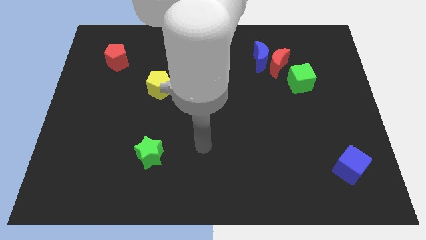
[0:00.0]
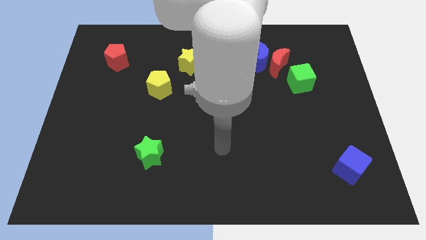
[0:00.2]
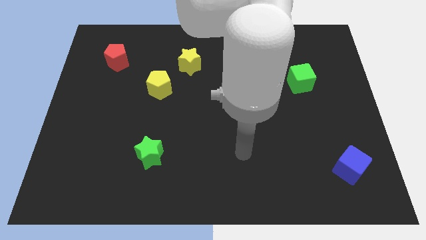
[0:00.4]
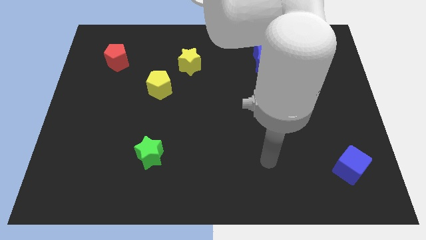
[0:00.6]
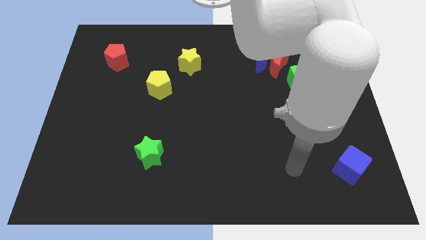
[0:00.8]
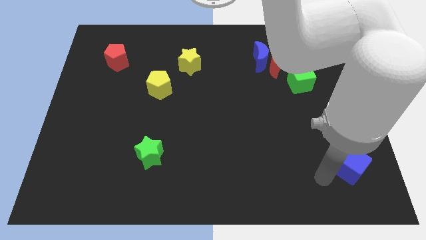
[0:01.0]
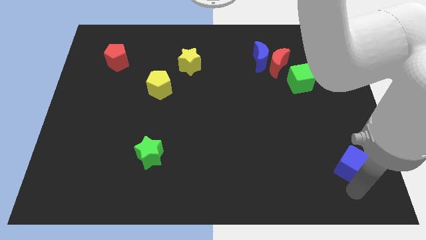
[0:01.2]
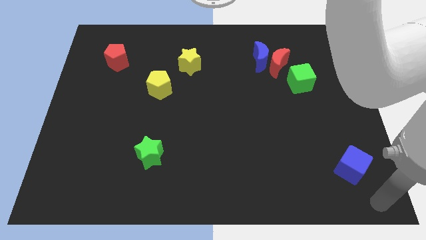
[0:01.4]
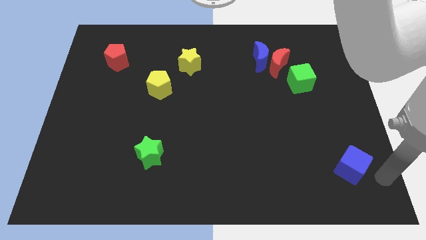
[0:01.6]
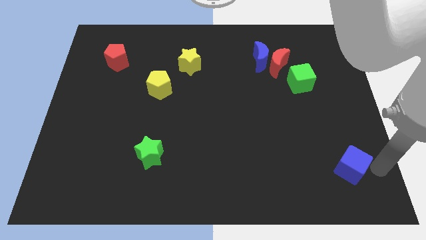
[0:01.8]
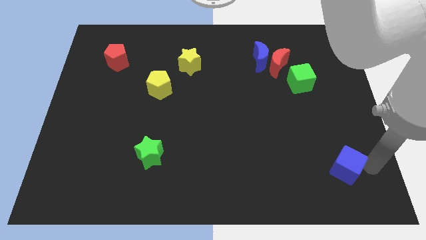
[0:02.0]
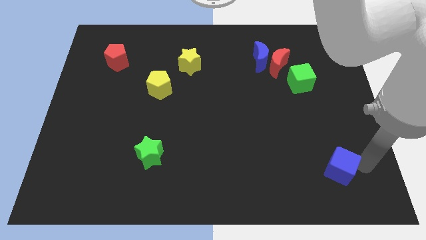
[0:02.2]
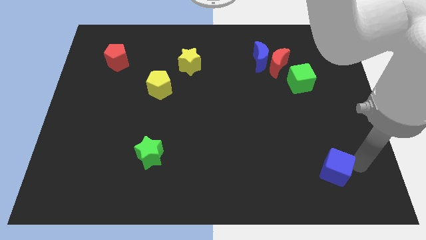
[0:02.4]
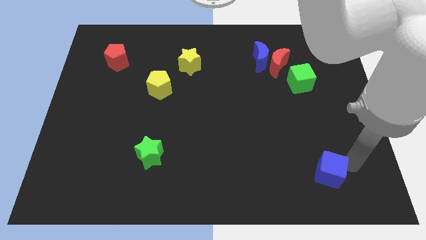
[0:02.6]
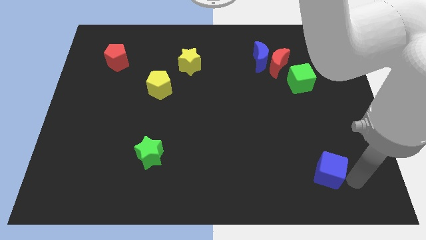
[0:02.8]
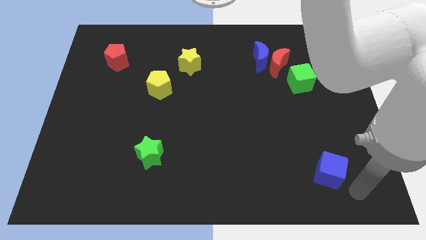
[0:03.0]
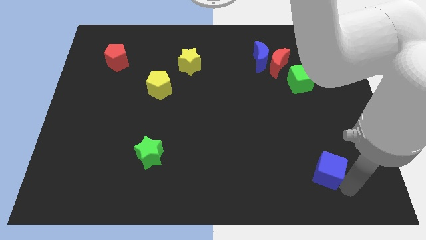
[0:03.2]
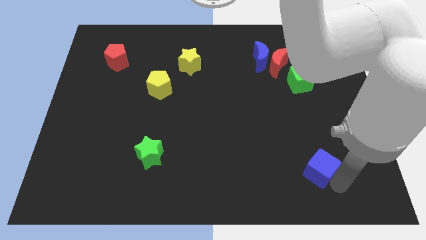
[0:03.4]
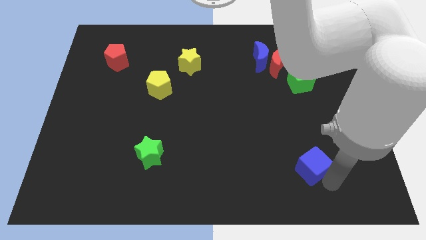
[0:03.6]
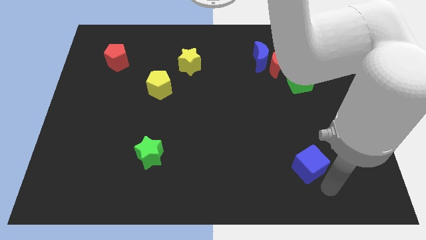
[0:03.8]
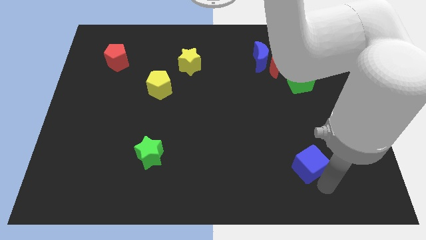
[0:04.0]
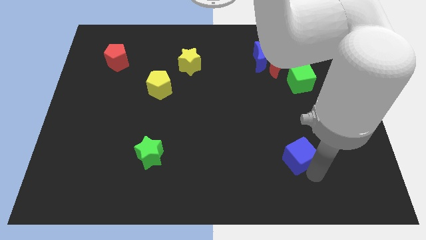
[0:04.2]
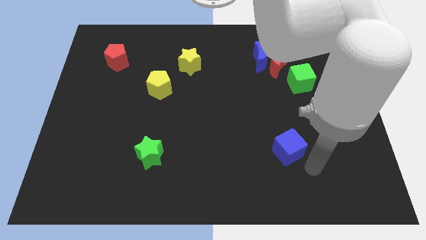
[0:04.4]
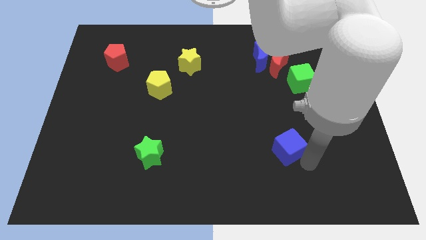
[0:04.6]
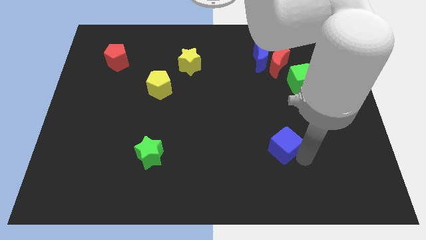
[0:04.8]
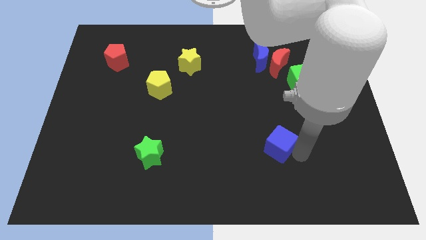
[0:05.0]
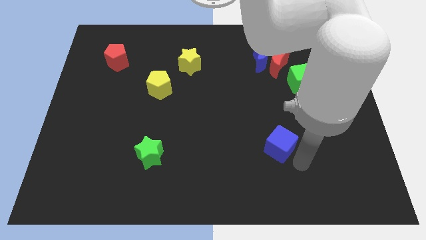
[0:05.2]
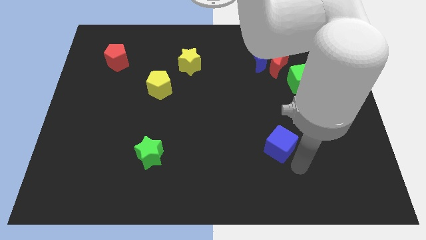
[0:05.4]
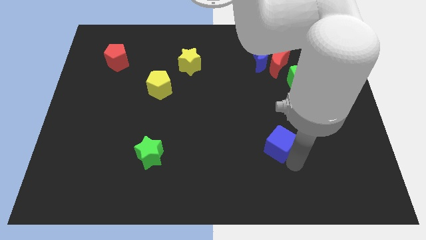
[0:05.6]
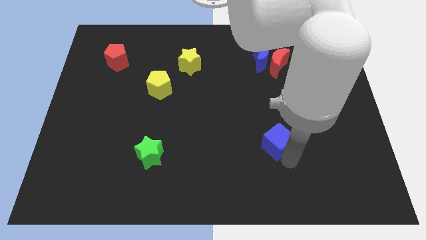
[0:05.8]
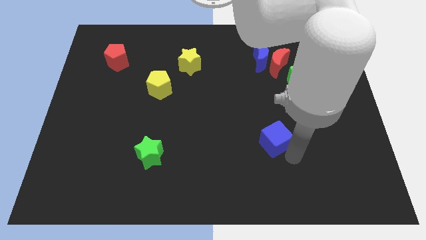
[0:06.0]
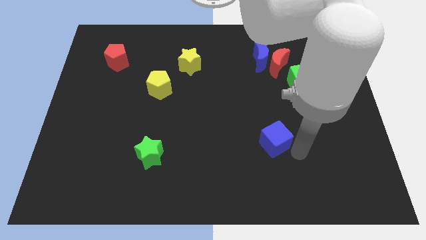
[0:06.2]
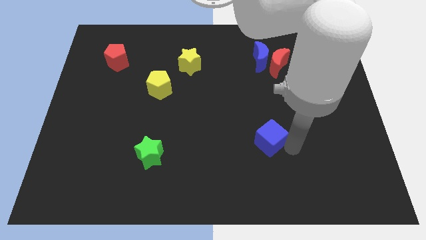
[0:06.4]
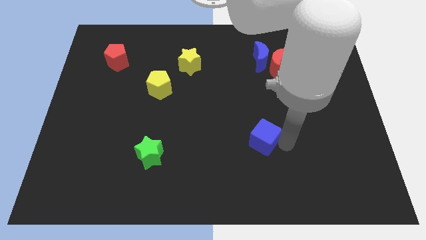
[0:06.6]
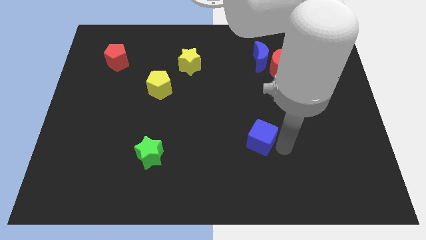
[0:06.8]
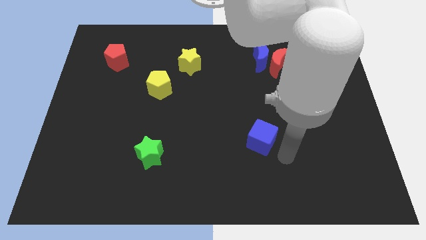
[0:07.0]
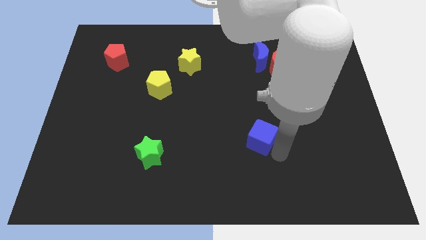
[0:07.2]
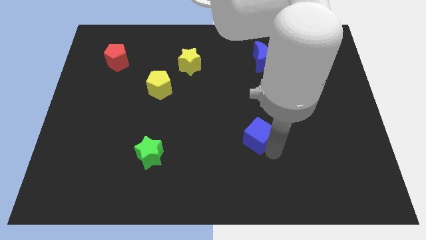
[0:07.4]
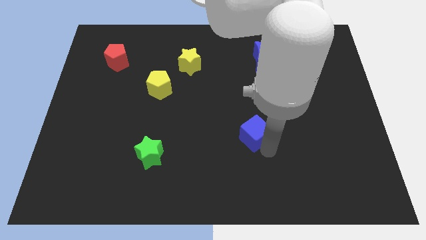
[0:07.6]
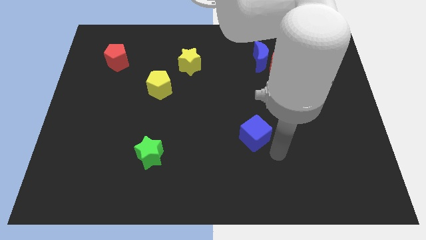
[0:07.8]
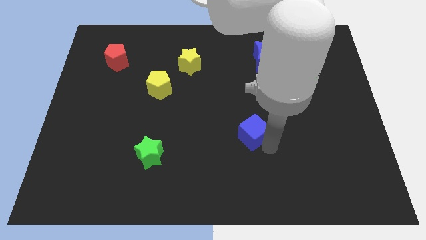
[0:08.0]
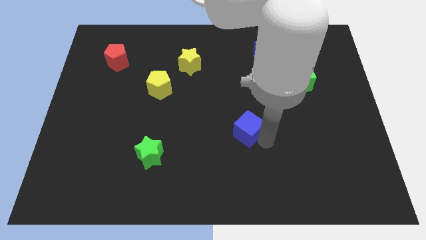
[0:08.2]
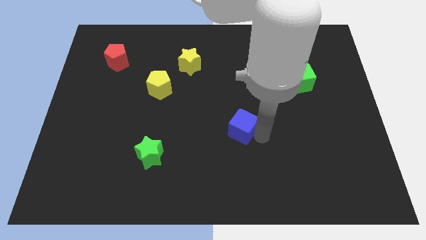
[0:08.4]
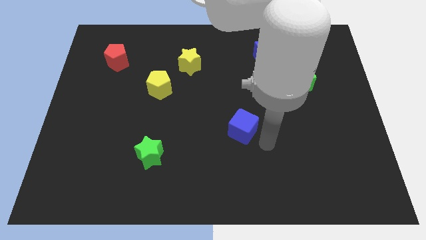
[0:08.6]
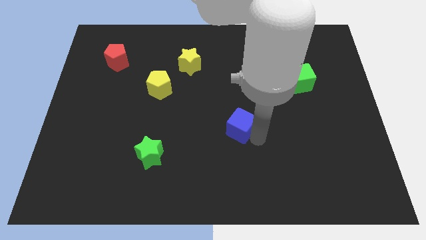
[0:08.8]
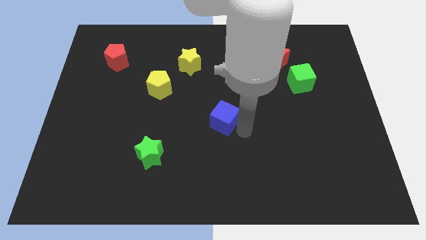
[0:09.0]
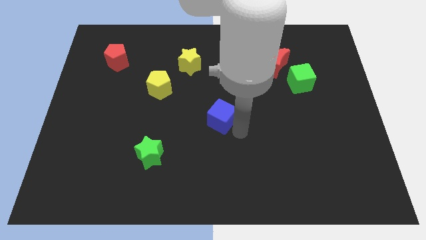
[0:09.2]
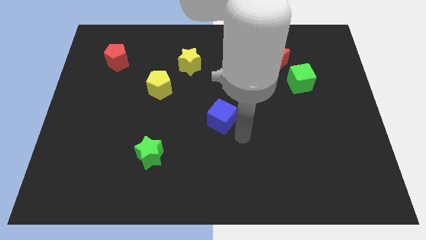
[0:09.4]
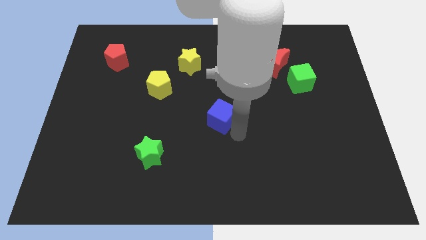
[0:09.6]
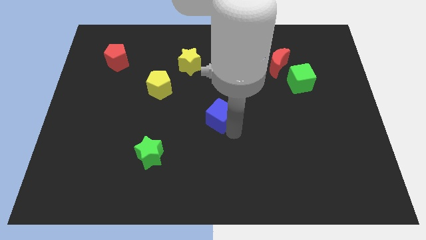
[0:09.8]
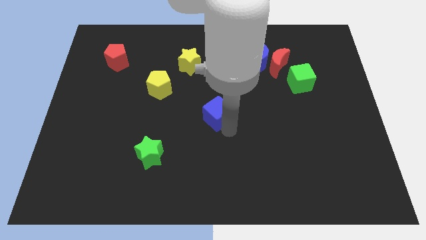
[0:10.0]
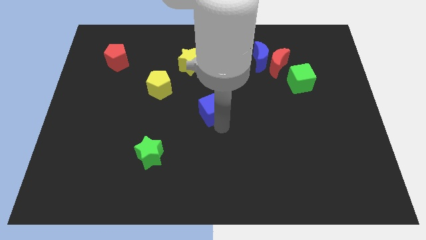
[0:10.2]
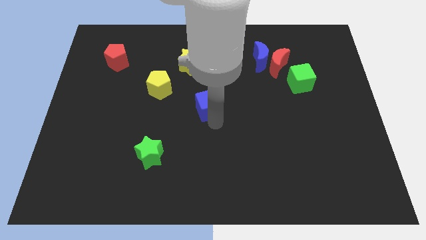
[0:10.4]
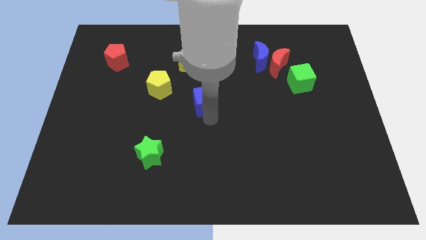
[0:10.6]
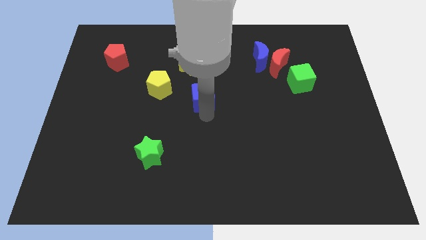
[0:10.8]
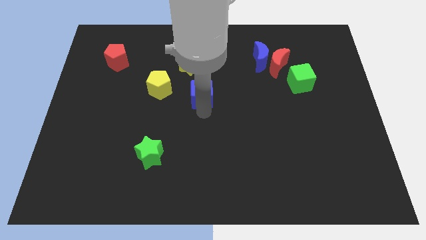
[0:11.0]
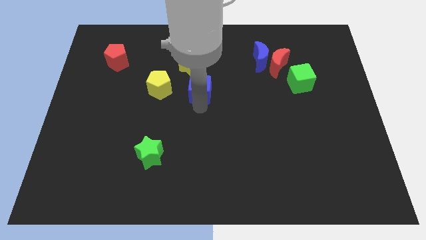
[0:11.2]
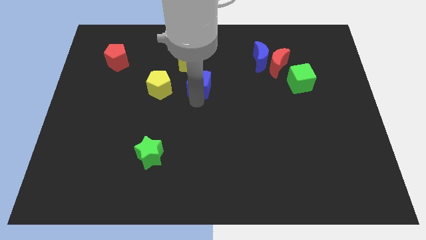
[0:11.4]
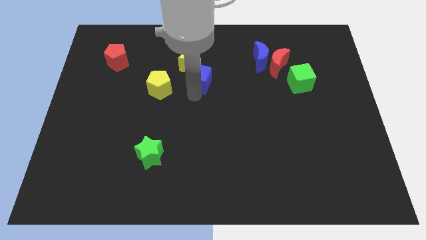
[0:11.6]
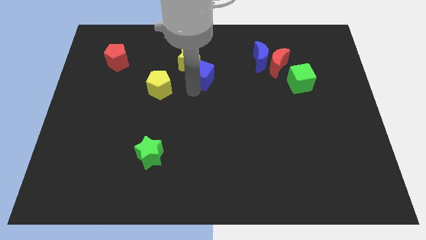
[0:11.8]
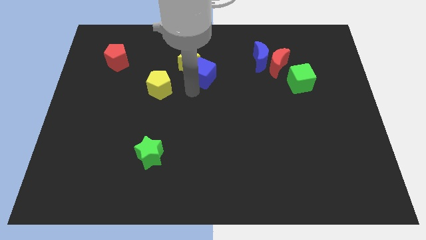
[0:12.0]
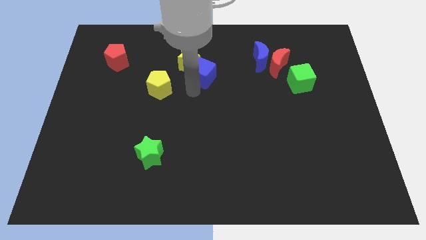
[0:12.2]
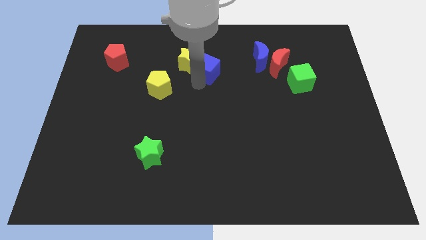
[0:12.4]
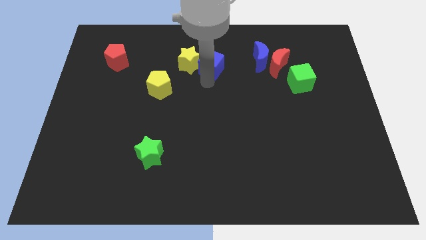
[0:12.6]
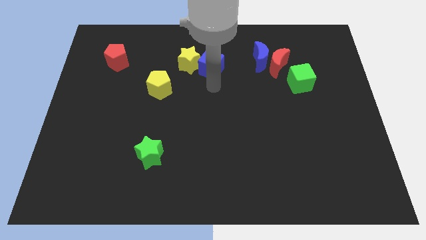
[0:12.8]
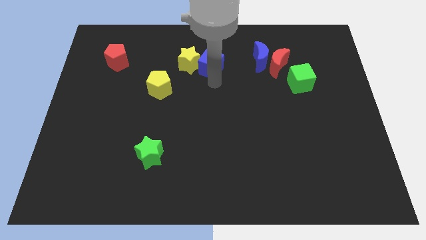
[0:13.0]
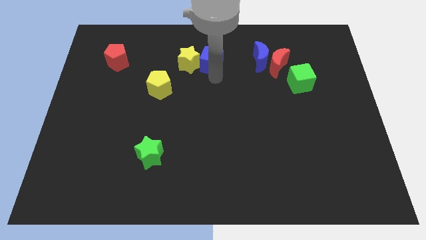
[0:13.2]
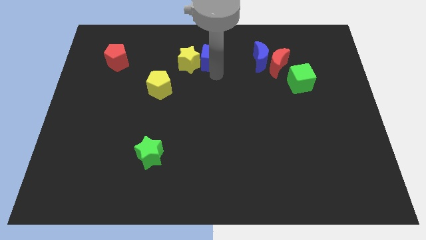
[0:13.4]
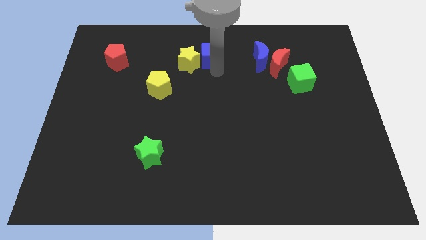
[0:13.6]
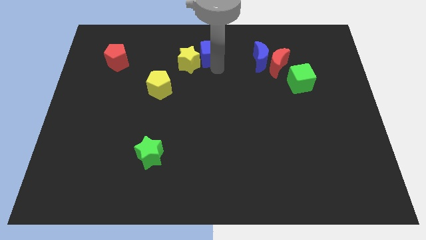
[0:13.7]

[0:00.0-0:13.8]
move the blue cube to the towards your base

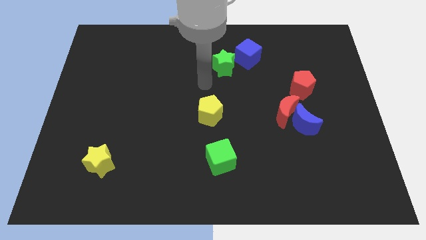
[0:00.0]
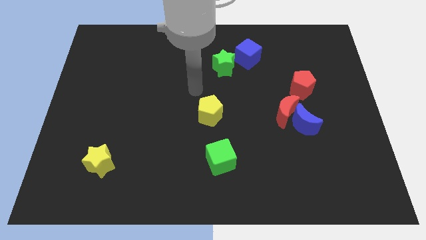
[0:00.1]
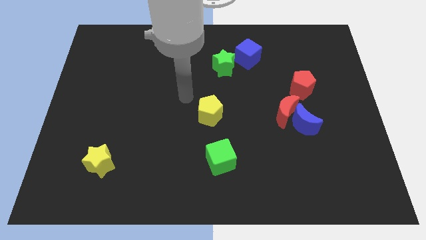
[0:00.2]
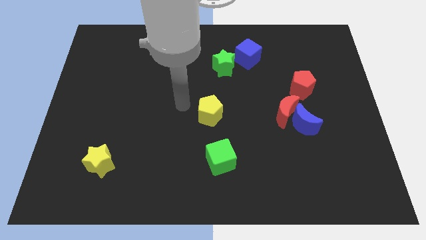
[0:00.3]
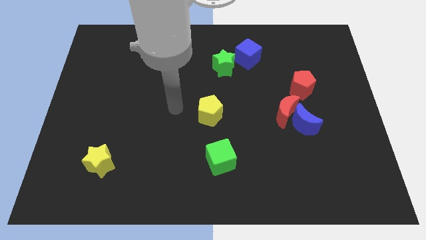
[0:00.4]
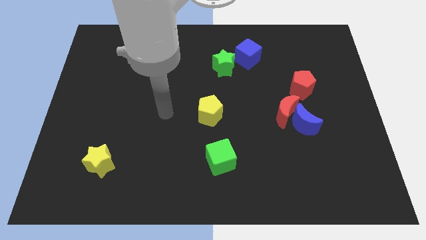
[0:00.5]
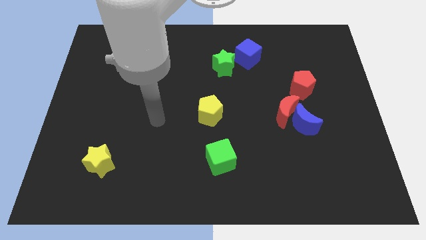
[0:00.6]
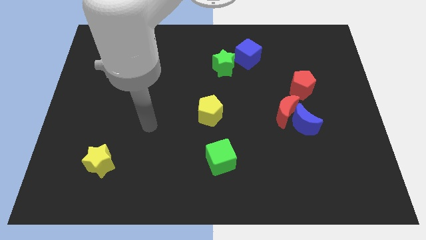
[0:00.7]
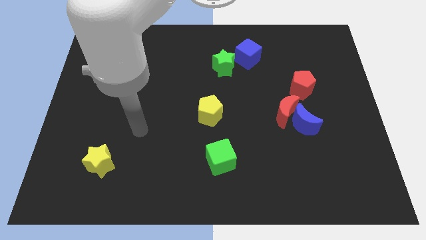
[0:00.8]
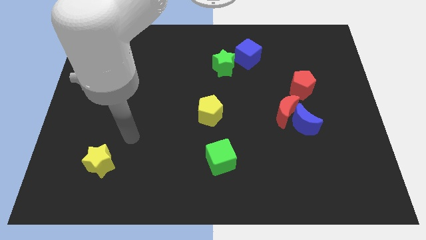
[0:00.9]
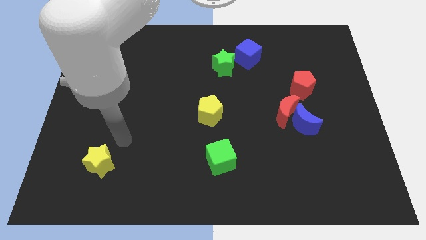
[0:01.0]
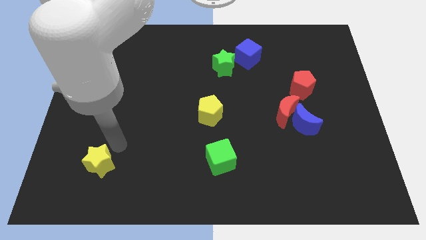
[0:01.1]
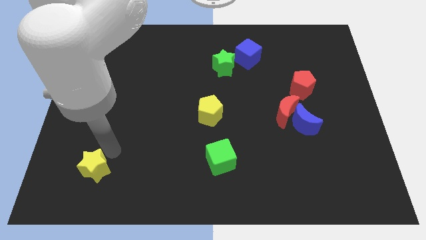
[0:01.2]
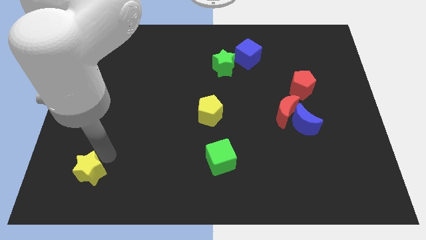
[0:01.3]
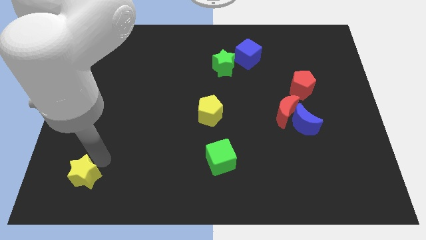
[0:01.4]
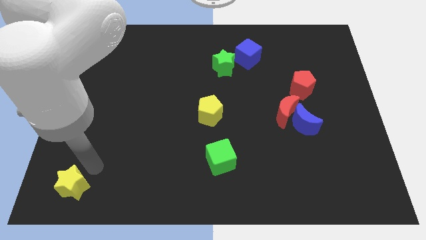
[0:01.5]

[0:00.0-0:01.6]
push the yellow star to the lower left corner
